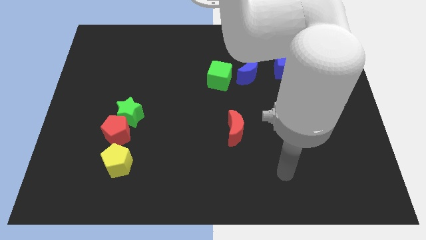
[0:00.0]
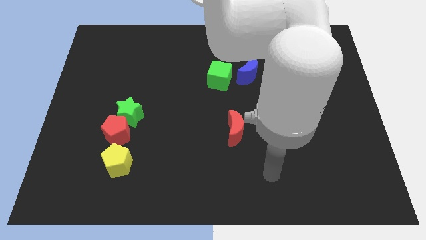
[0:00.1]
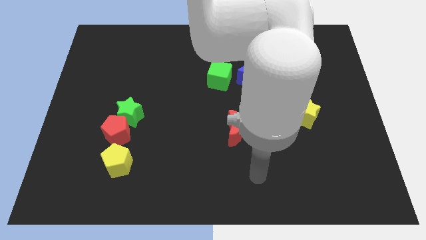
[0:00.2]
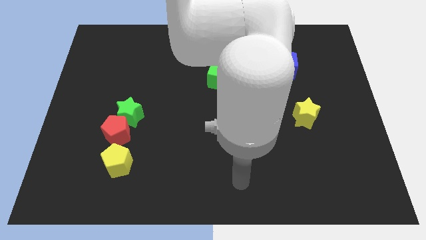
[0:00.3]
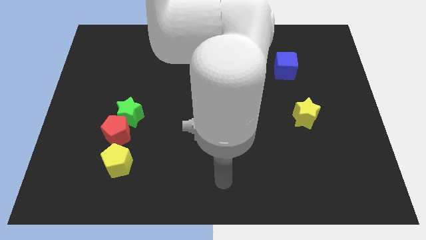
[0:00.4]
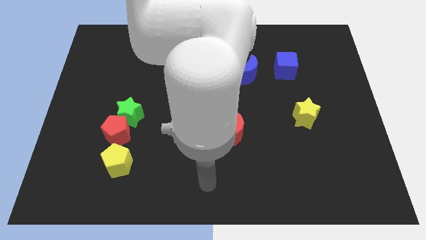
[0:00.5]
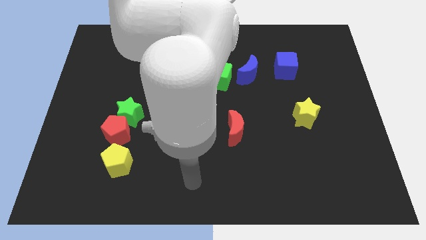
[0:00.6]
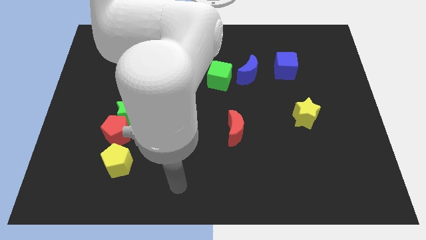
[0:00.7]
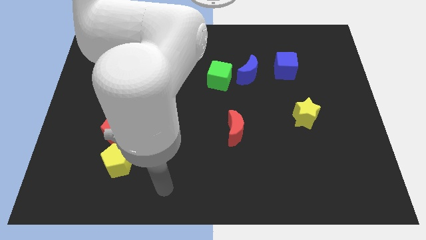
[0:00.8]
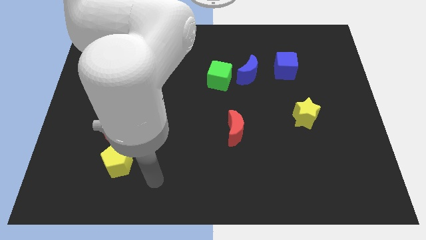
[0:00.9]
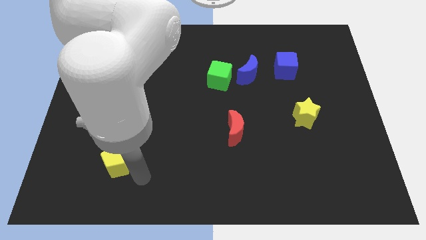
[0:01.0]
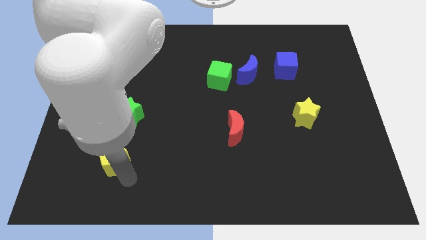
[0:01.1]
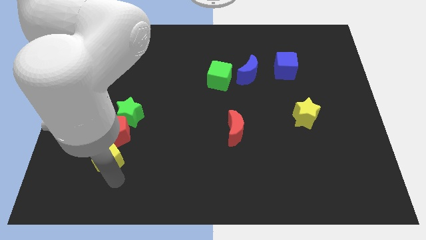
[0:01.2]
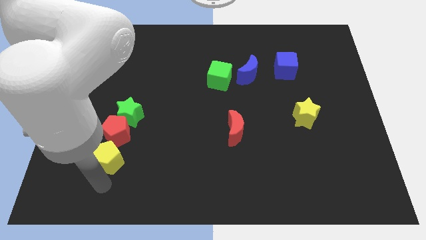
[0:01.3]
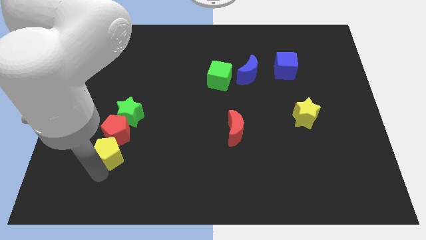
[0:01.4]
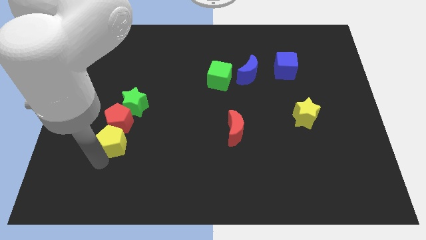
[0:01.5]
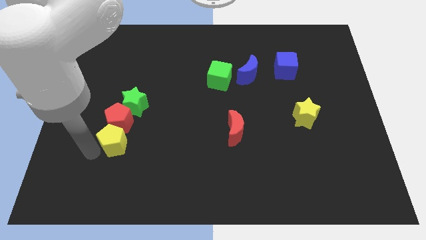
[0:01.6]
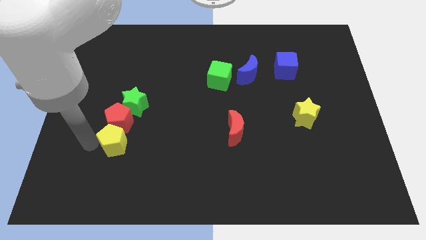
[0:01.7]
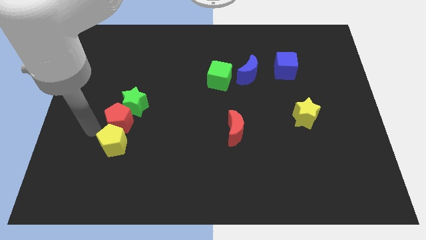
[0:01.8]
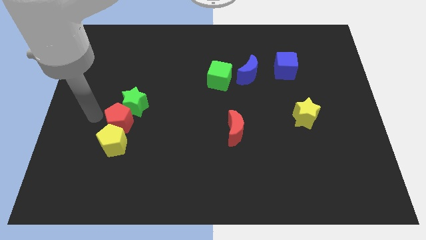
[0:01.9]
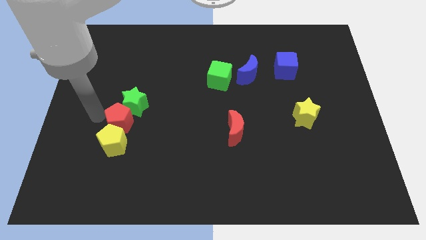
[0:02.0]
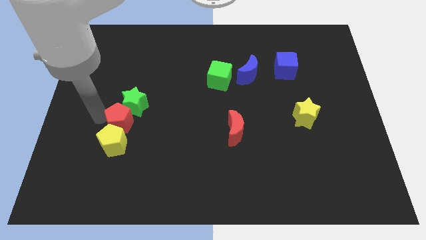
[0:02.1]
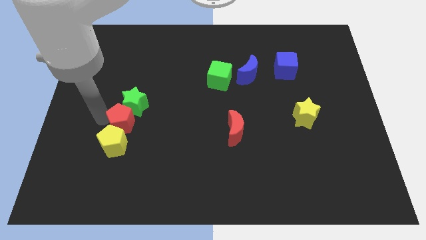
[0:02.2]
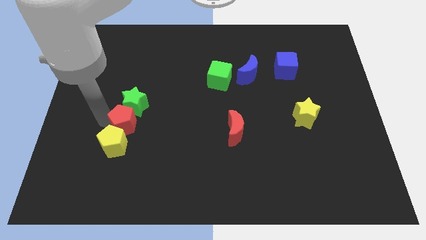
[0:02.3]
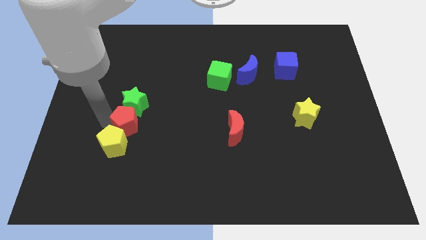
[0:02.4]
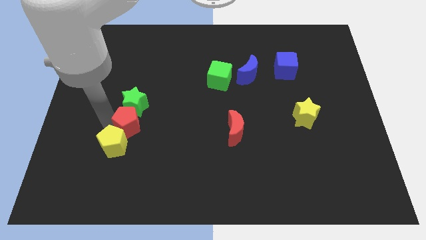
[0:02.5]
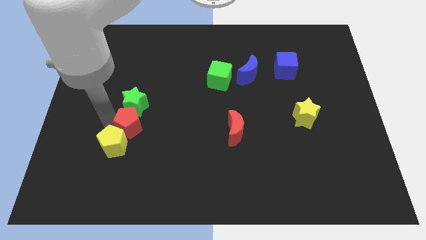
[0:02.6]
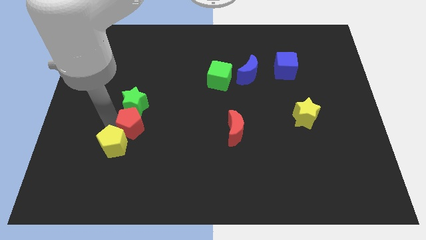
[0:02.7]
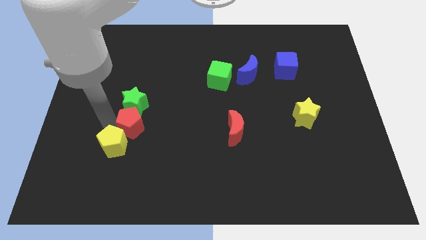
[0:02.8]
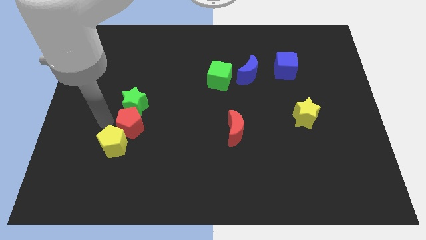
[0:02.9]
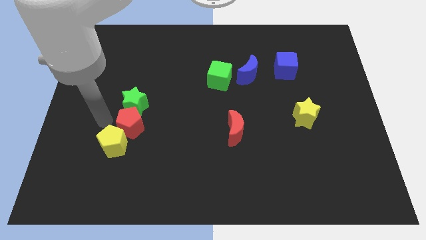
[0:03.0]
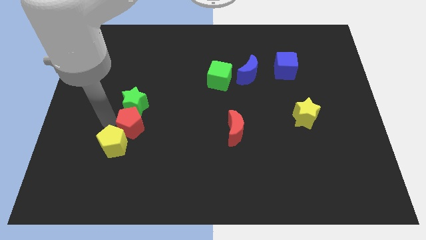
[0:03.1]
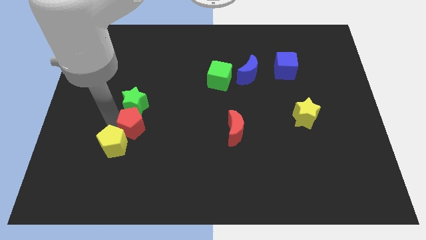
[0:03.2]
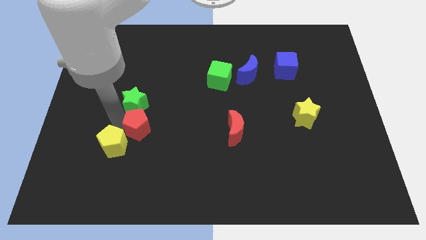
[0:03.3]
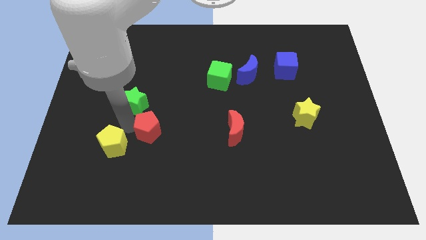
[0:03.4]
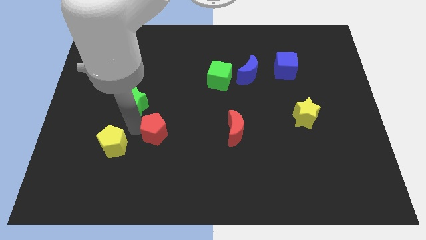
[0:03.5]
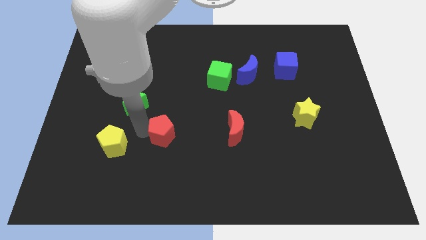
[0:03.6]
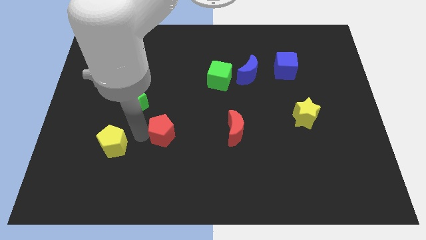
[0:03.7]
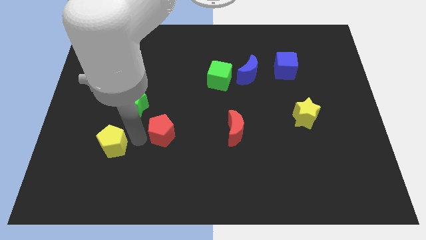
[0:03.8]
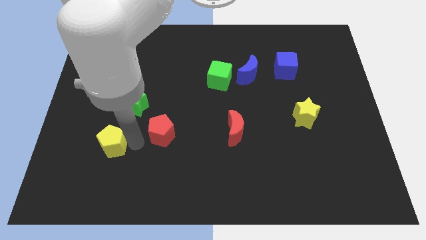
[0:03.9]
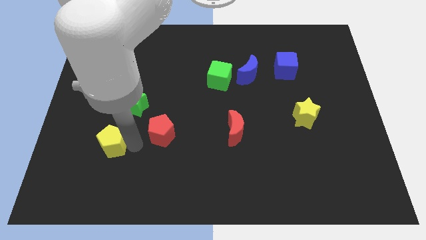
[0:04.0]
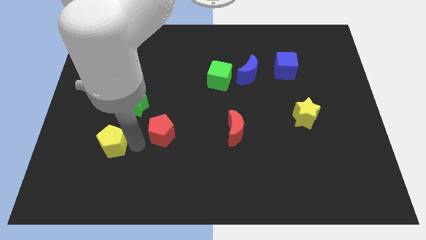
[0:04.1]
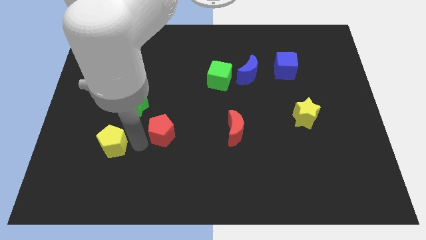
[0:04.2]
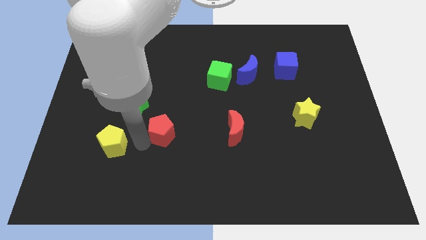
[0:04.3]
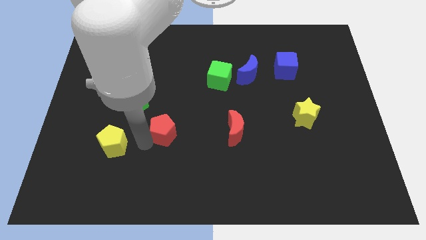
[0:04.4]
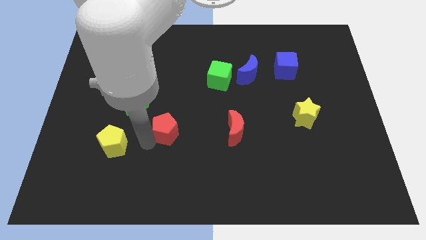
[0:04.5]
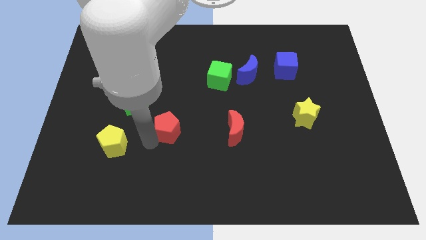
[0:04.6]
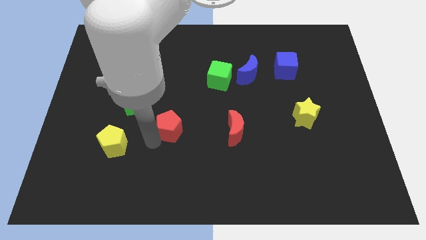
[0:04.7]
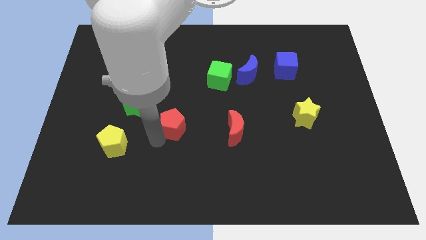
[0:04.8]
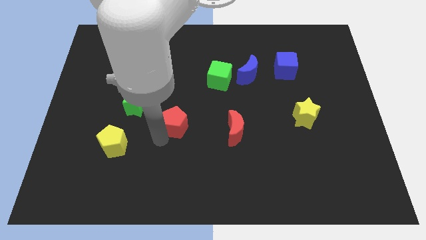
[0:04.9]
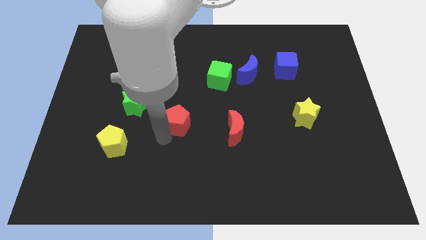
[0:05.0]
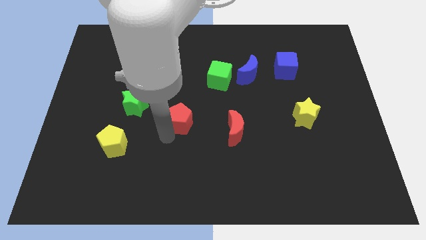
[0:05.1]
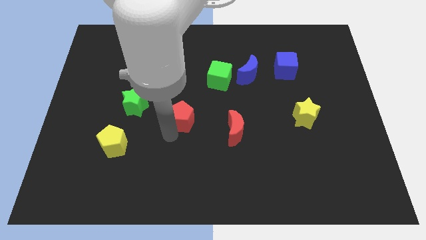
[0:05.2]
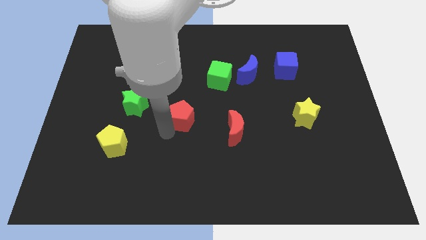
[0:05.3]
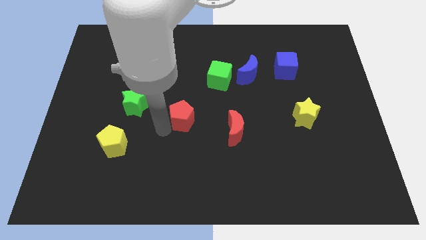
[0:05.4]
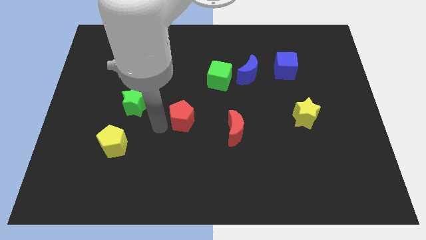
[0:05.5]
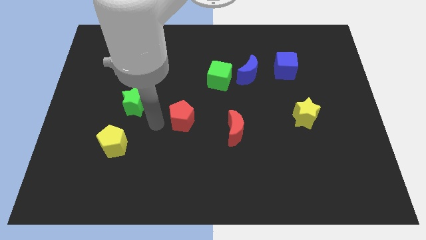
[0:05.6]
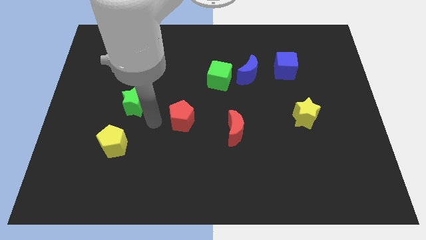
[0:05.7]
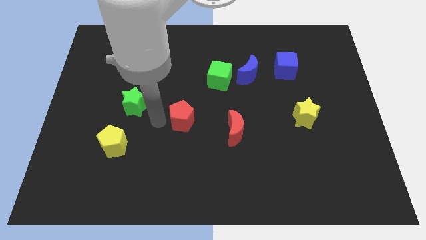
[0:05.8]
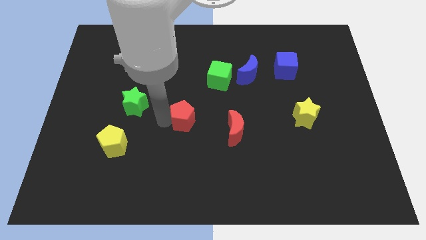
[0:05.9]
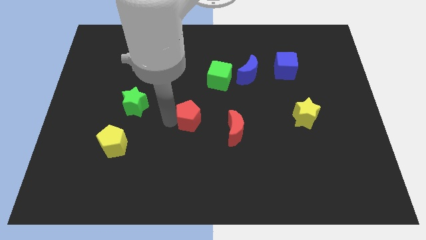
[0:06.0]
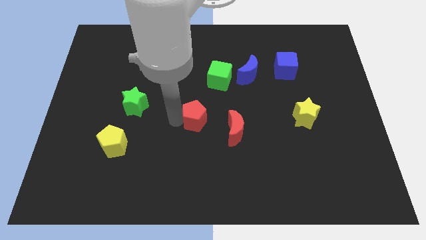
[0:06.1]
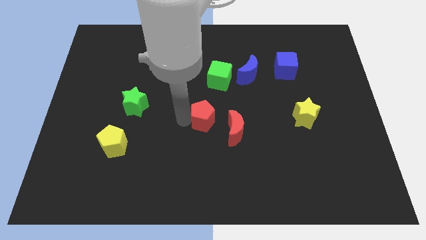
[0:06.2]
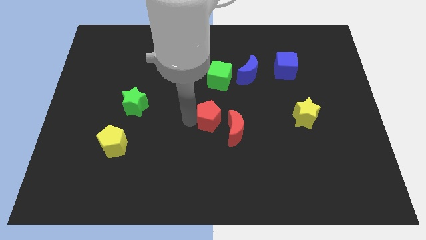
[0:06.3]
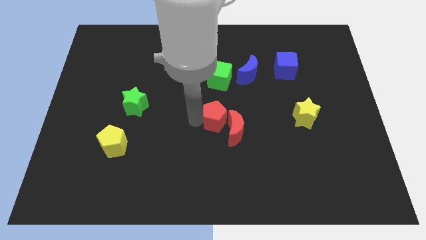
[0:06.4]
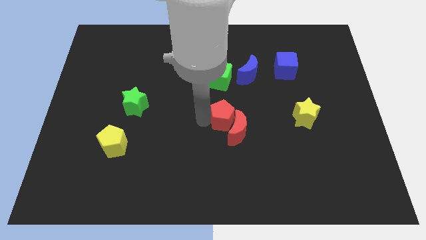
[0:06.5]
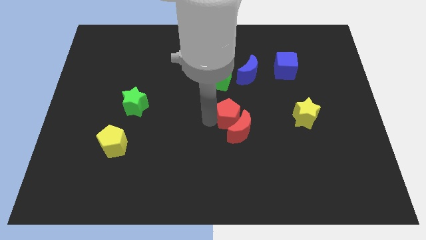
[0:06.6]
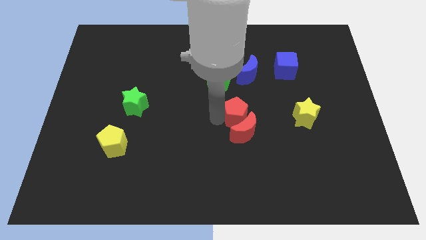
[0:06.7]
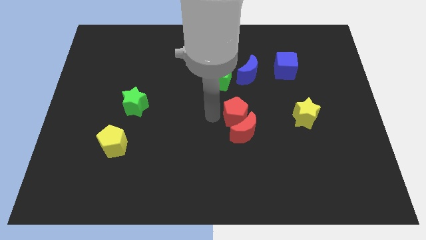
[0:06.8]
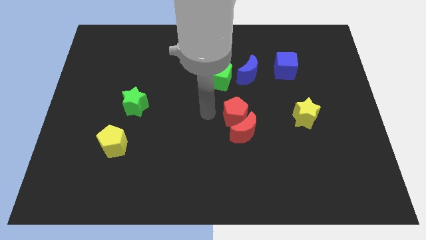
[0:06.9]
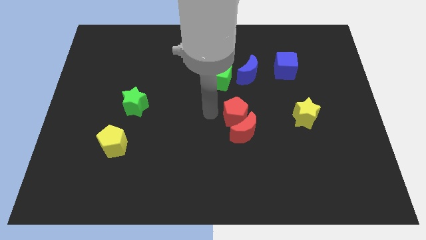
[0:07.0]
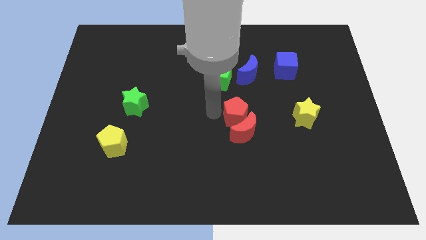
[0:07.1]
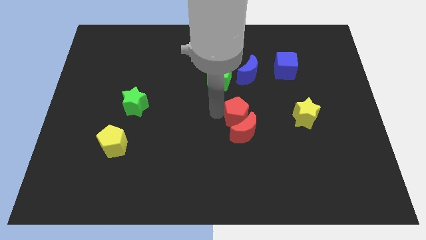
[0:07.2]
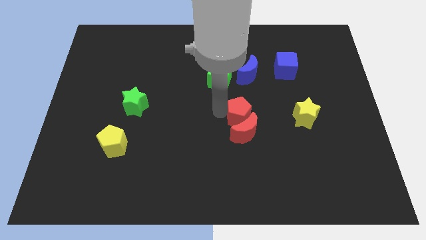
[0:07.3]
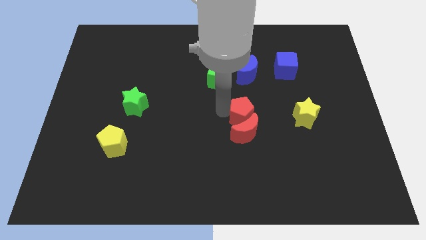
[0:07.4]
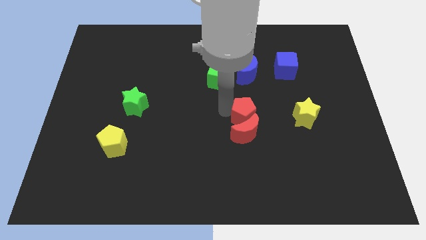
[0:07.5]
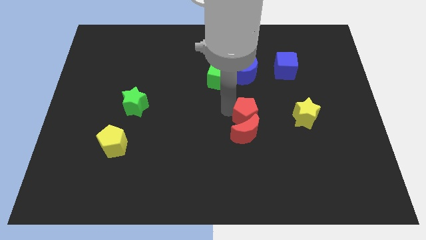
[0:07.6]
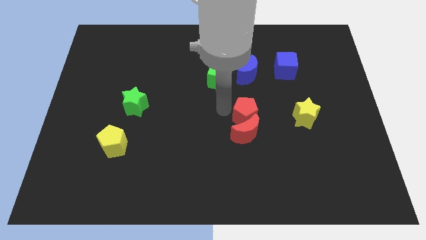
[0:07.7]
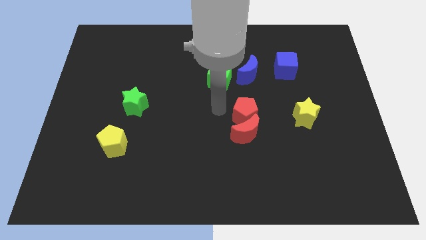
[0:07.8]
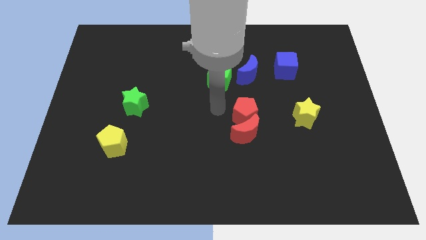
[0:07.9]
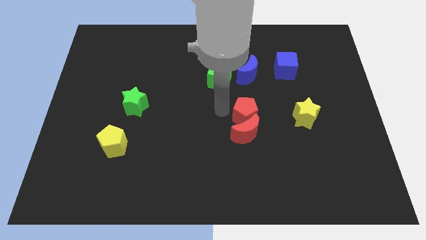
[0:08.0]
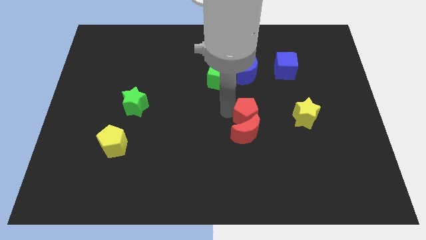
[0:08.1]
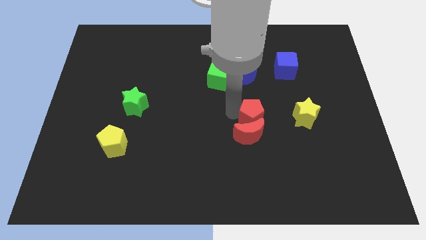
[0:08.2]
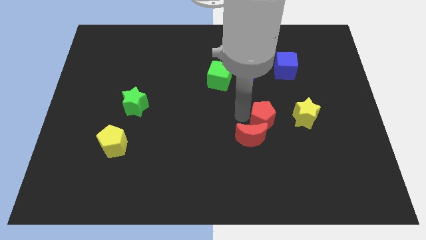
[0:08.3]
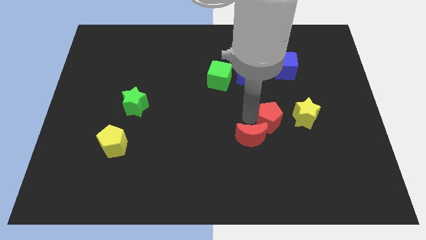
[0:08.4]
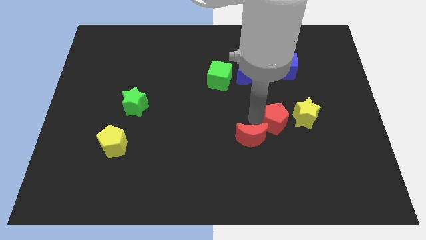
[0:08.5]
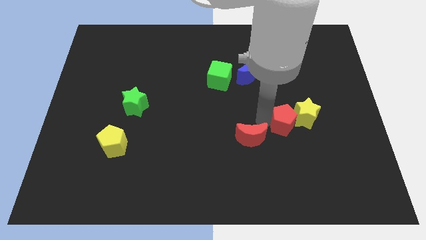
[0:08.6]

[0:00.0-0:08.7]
push the red pentagon to the yellow star
